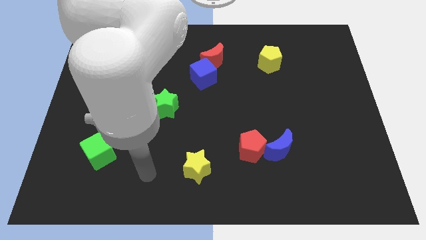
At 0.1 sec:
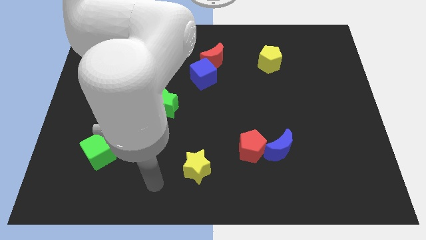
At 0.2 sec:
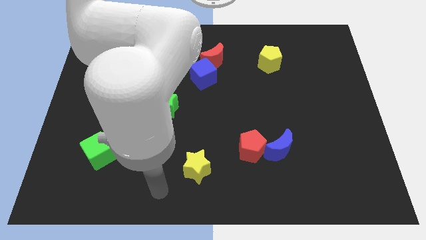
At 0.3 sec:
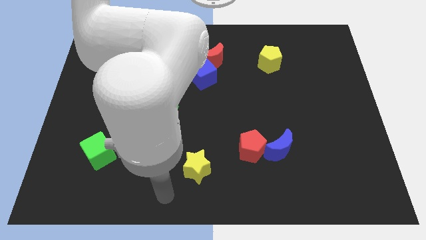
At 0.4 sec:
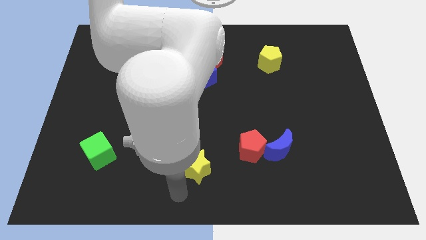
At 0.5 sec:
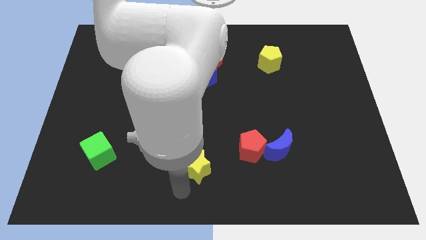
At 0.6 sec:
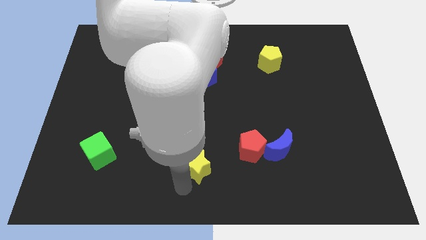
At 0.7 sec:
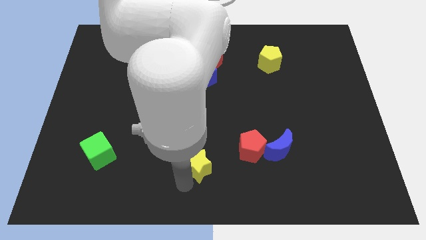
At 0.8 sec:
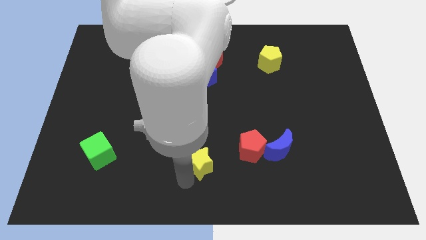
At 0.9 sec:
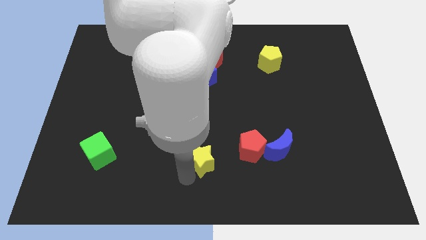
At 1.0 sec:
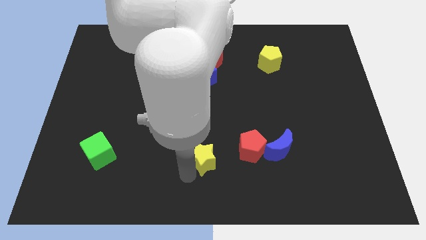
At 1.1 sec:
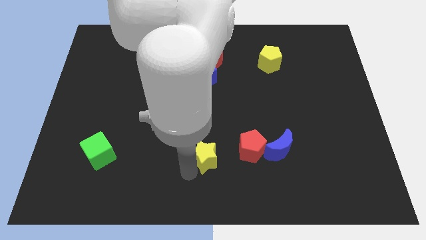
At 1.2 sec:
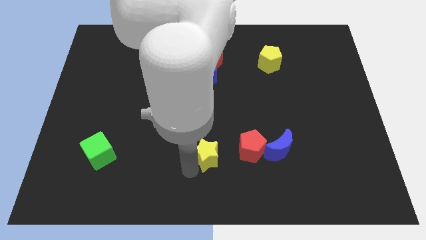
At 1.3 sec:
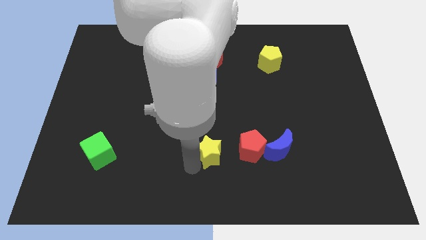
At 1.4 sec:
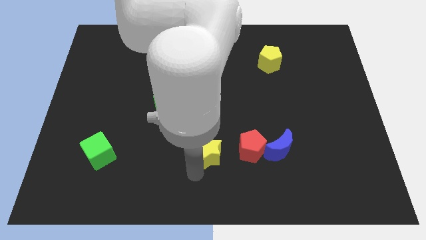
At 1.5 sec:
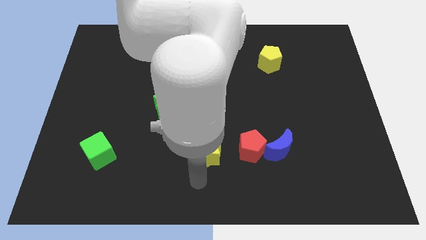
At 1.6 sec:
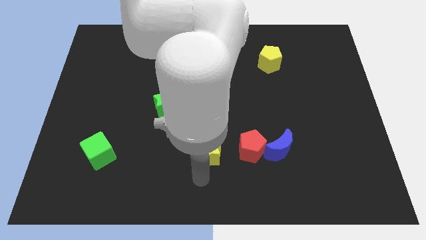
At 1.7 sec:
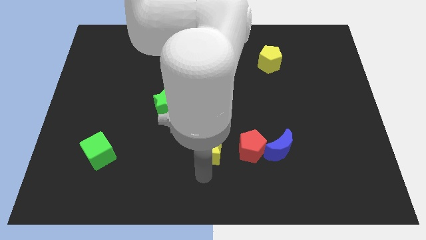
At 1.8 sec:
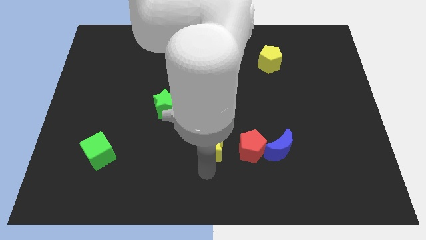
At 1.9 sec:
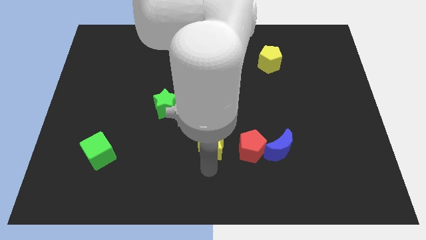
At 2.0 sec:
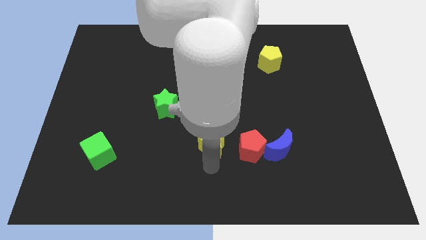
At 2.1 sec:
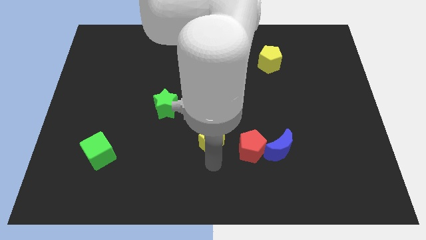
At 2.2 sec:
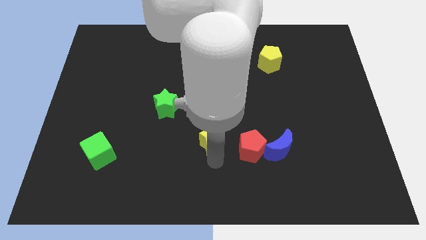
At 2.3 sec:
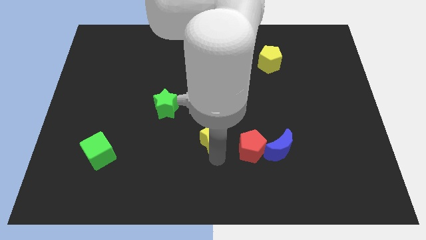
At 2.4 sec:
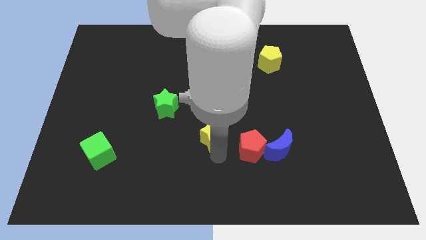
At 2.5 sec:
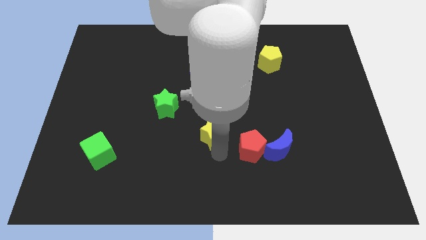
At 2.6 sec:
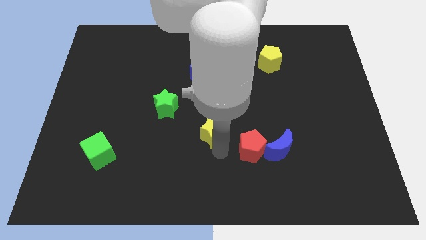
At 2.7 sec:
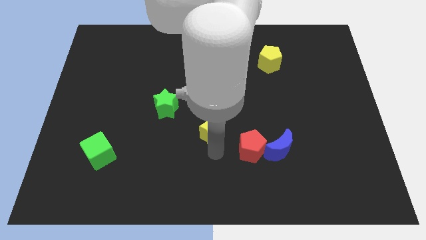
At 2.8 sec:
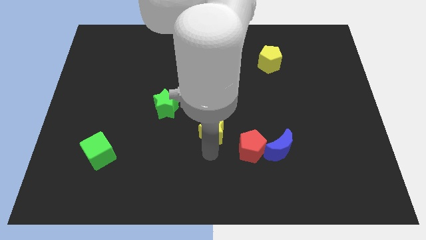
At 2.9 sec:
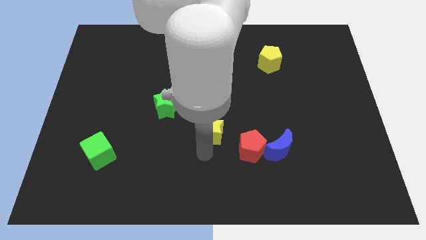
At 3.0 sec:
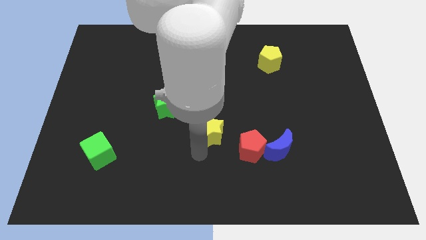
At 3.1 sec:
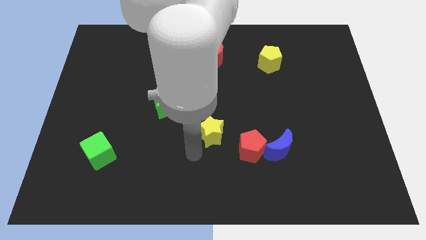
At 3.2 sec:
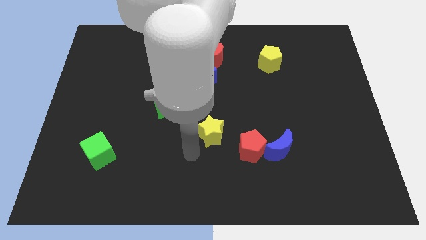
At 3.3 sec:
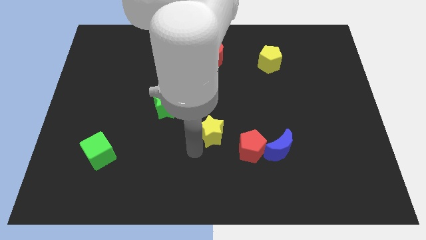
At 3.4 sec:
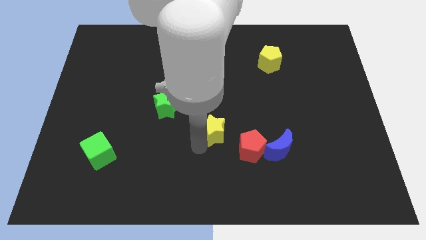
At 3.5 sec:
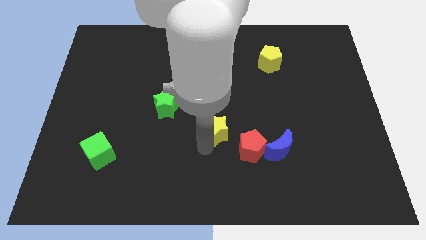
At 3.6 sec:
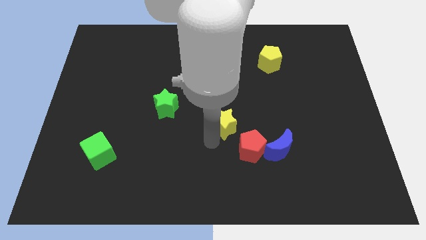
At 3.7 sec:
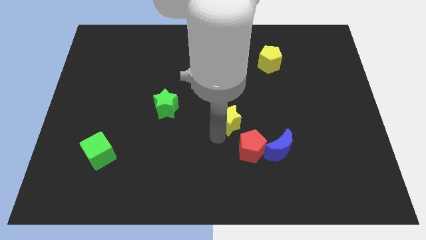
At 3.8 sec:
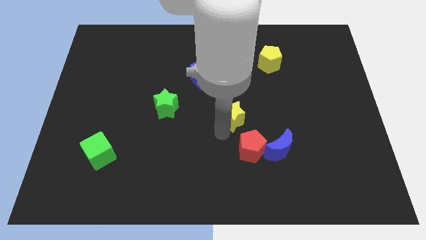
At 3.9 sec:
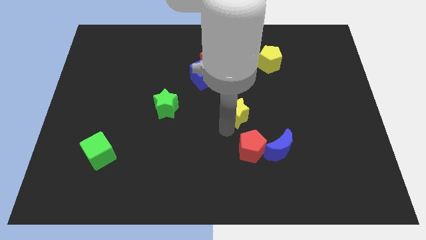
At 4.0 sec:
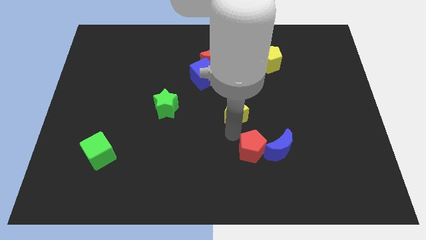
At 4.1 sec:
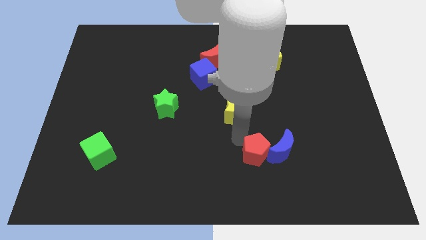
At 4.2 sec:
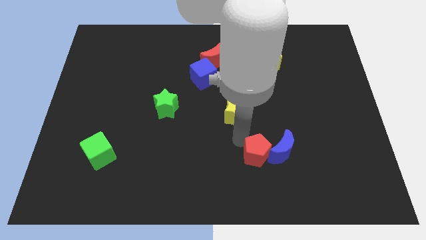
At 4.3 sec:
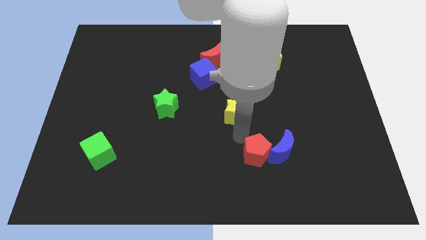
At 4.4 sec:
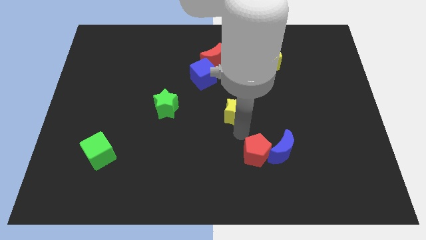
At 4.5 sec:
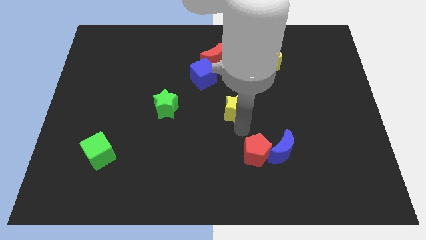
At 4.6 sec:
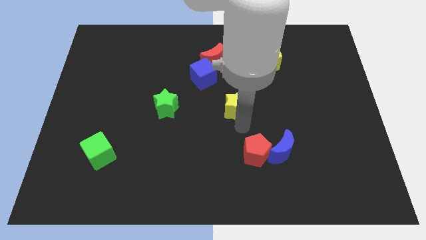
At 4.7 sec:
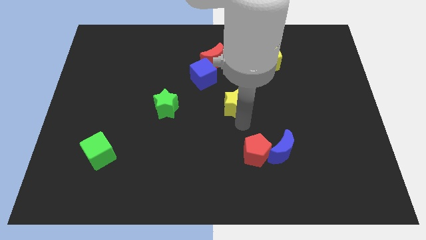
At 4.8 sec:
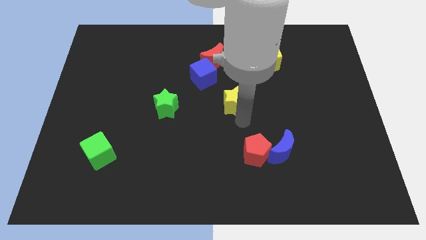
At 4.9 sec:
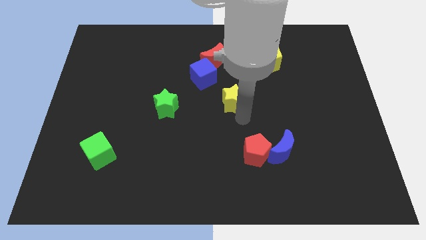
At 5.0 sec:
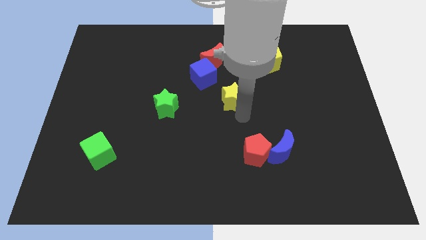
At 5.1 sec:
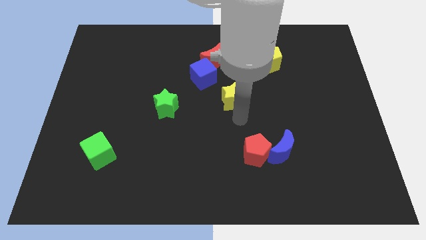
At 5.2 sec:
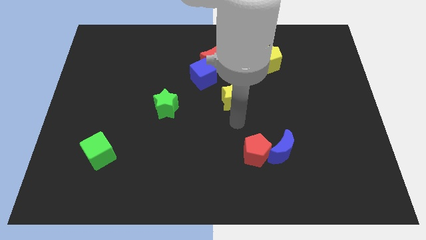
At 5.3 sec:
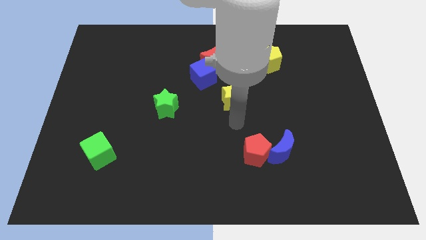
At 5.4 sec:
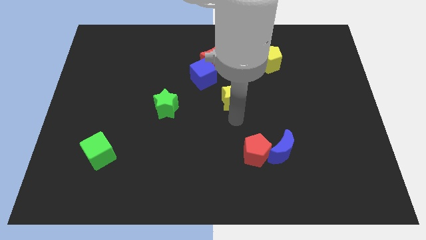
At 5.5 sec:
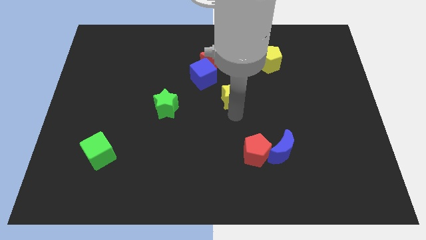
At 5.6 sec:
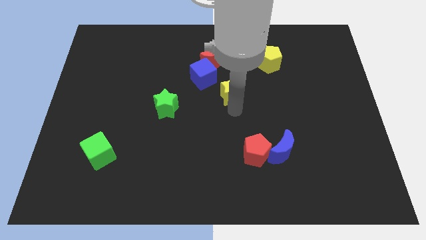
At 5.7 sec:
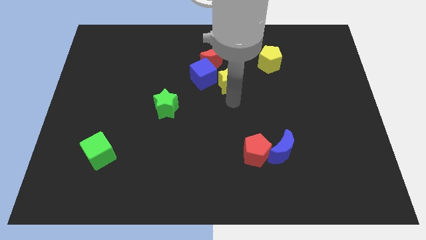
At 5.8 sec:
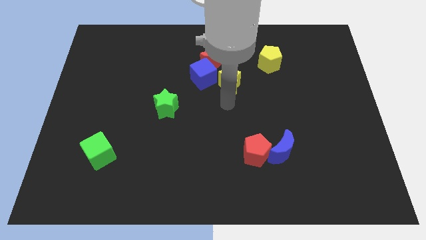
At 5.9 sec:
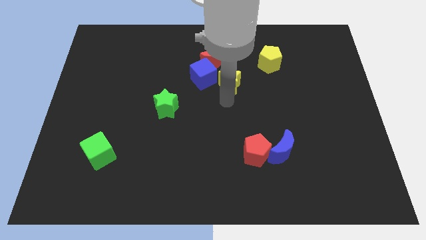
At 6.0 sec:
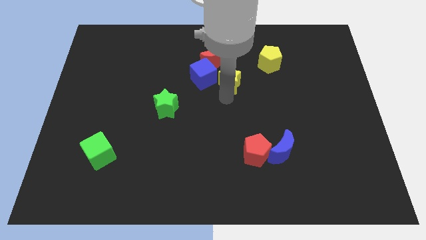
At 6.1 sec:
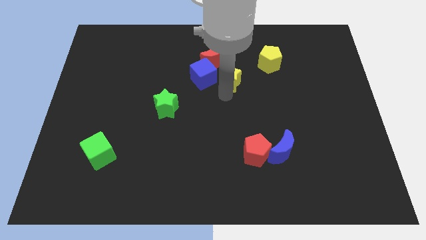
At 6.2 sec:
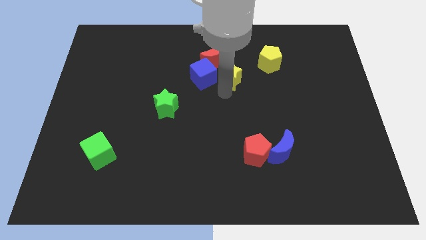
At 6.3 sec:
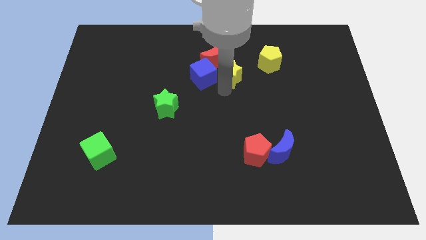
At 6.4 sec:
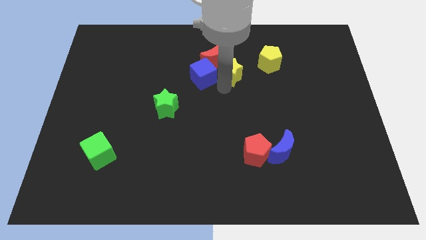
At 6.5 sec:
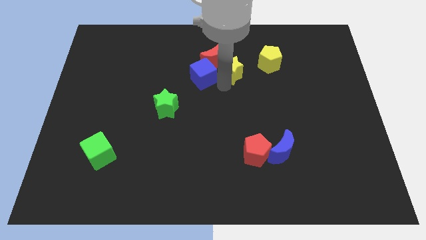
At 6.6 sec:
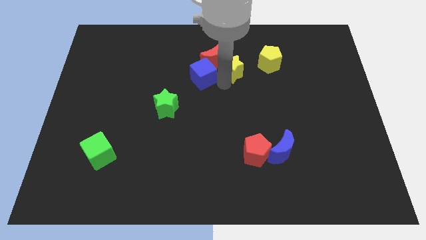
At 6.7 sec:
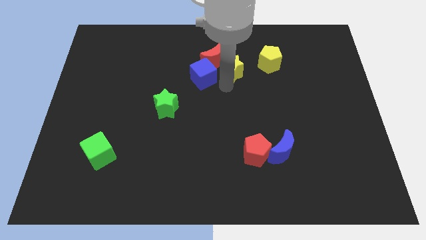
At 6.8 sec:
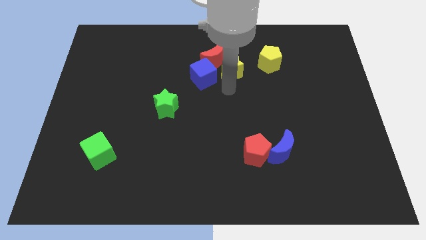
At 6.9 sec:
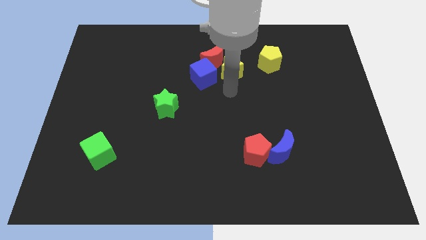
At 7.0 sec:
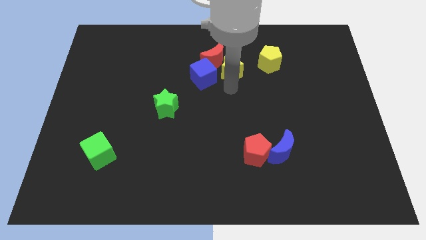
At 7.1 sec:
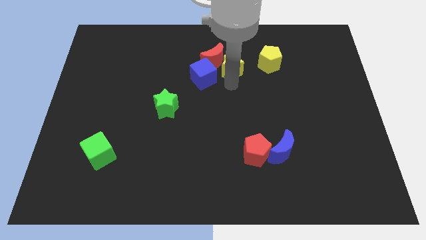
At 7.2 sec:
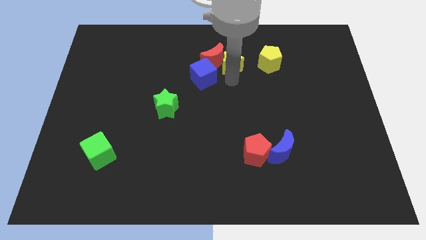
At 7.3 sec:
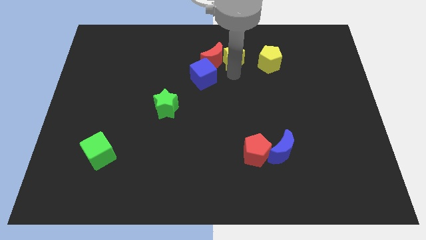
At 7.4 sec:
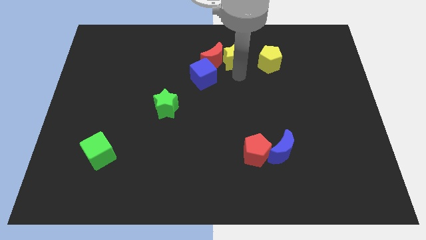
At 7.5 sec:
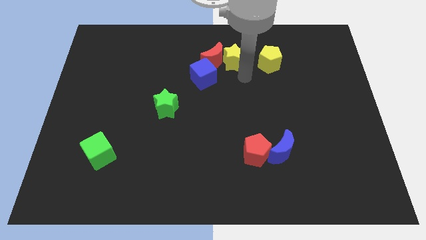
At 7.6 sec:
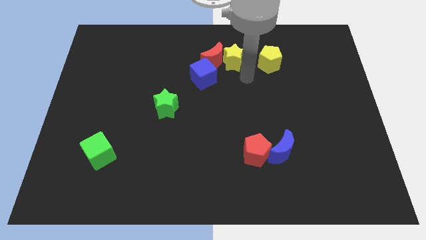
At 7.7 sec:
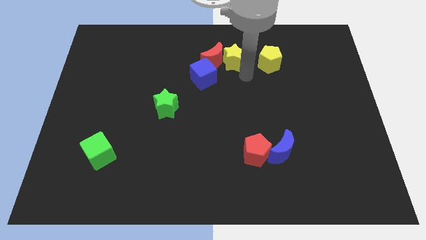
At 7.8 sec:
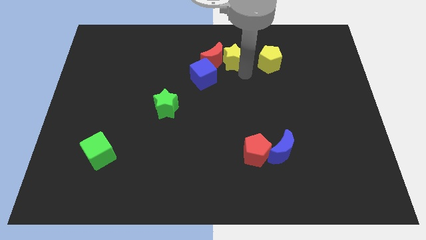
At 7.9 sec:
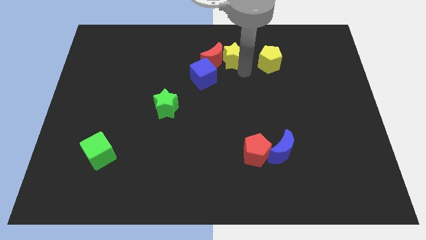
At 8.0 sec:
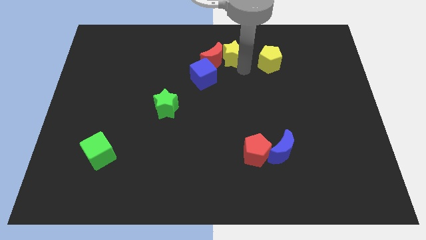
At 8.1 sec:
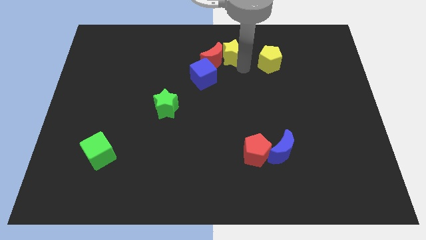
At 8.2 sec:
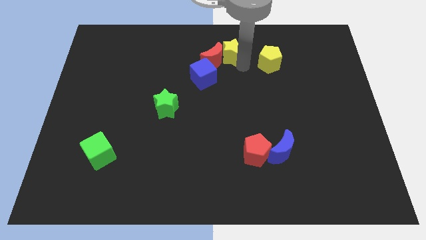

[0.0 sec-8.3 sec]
slide the yellow star to the top side
